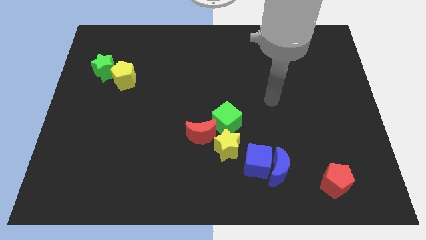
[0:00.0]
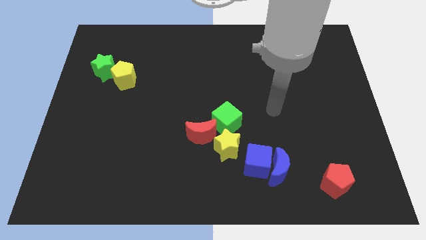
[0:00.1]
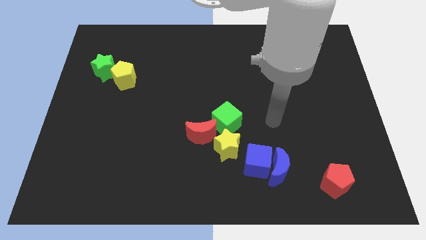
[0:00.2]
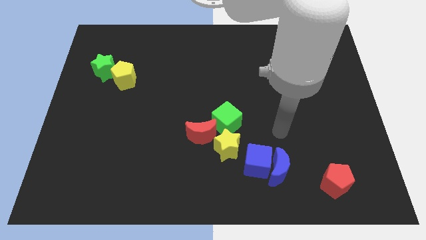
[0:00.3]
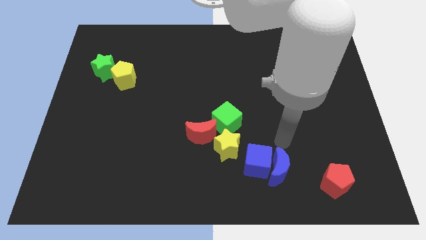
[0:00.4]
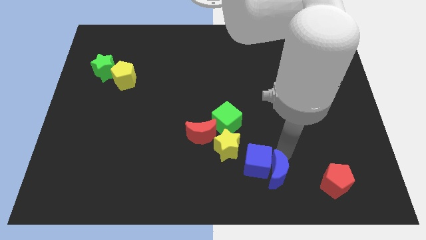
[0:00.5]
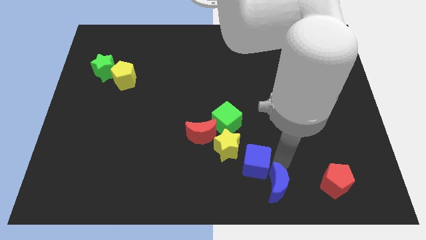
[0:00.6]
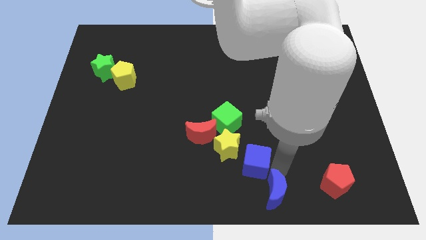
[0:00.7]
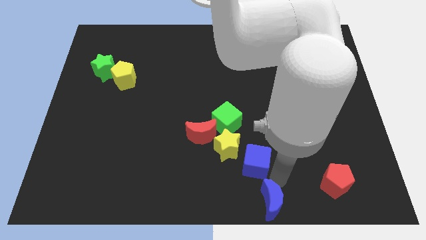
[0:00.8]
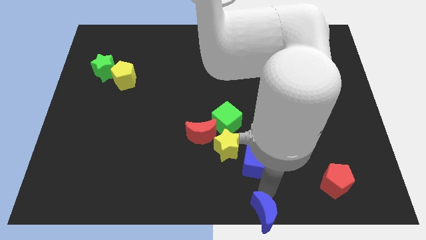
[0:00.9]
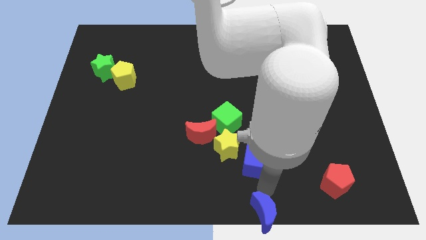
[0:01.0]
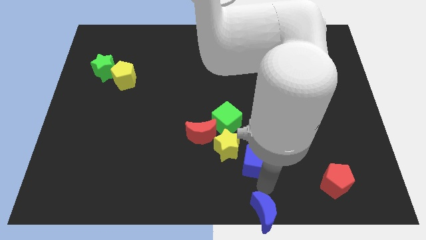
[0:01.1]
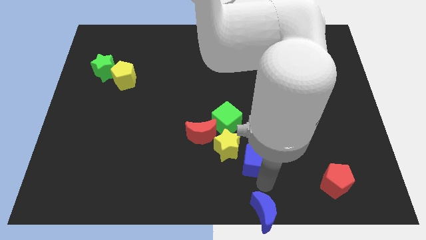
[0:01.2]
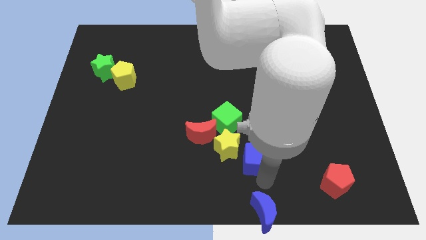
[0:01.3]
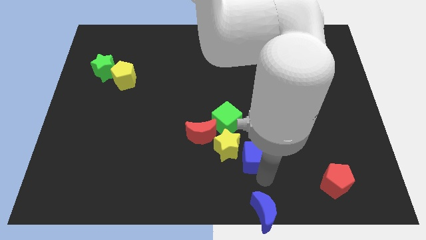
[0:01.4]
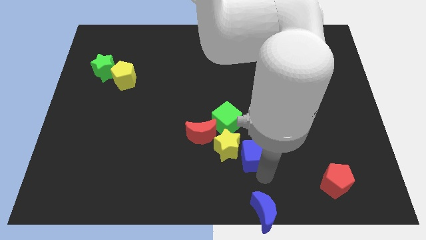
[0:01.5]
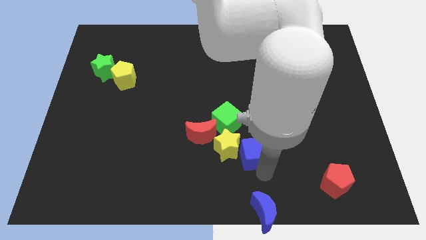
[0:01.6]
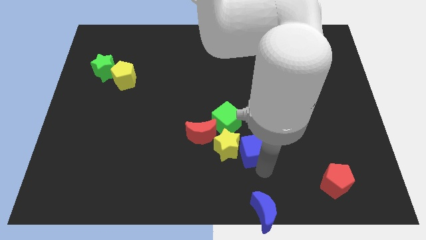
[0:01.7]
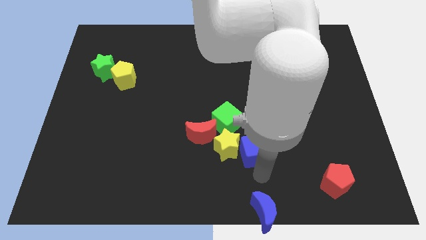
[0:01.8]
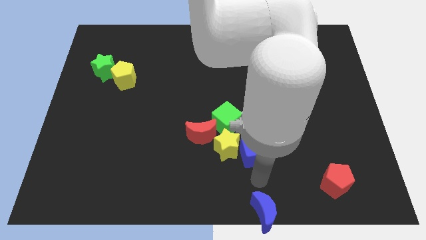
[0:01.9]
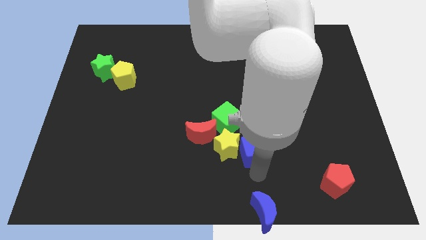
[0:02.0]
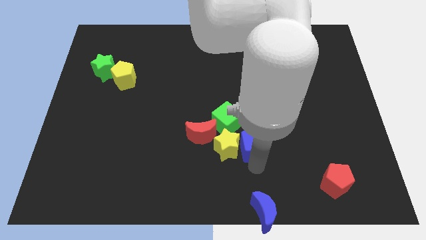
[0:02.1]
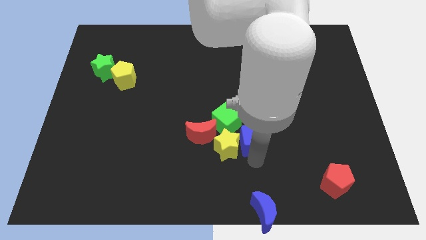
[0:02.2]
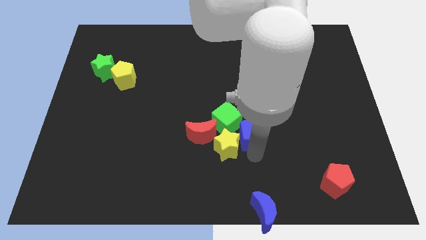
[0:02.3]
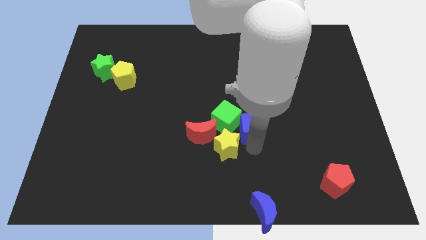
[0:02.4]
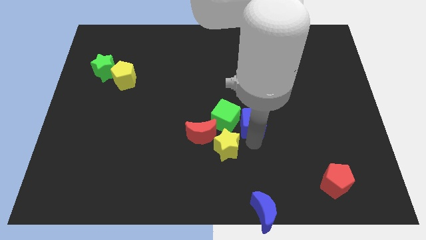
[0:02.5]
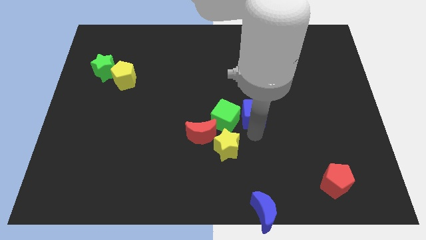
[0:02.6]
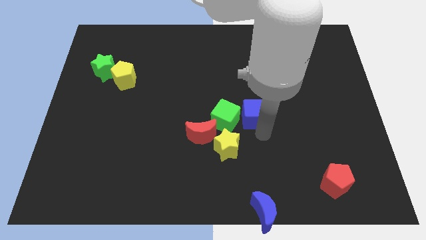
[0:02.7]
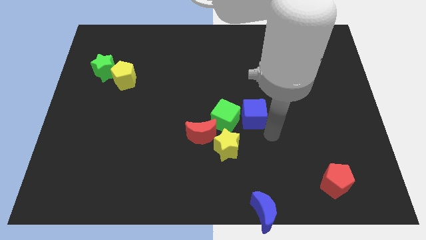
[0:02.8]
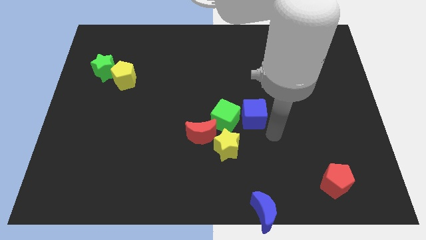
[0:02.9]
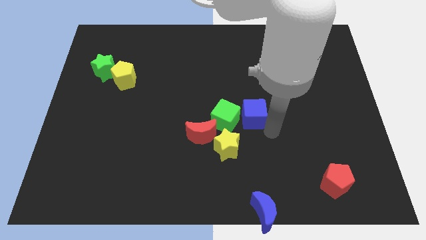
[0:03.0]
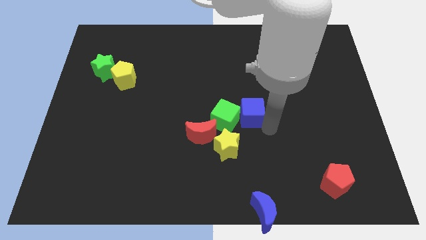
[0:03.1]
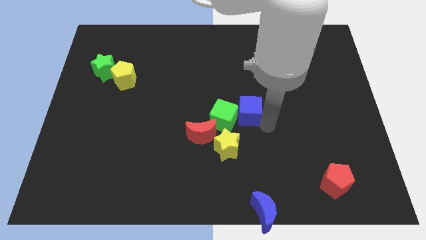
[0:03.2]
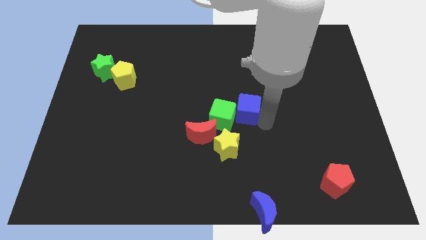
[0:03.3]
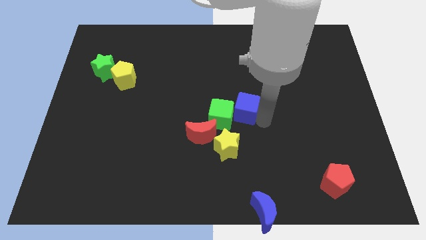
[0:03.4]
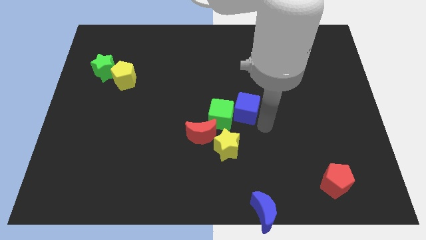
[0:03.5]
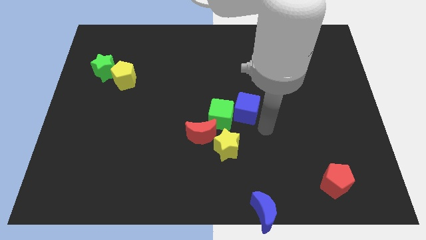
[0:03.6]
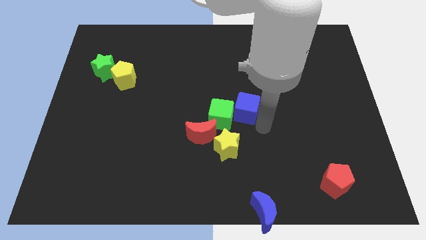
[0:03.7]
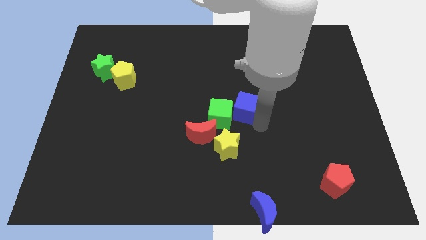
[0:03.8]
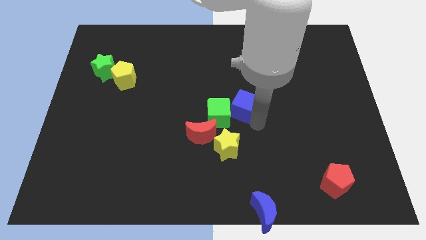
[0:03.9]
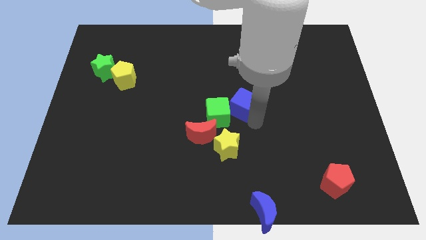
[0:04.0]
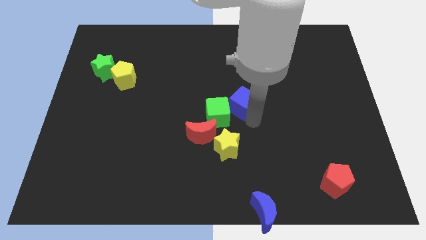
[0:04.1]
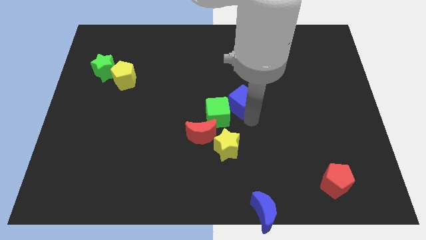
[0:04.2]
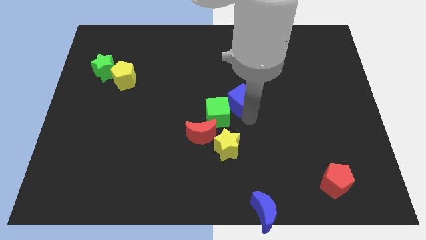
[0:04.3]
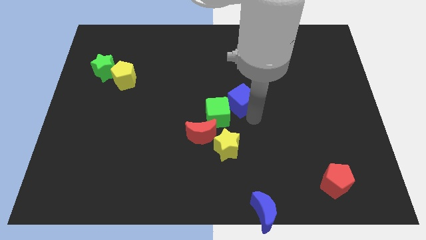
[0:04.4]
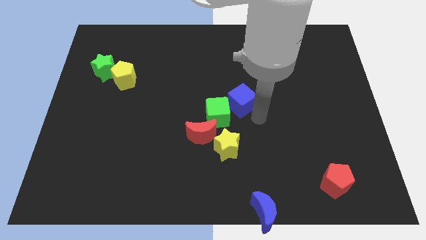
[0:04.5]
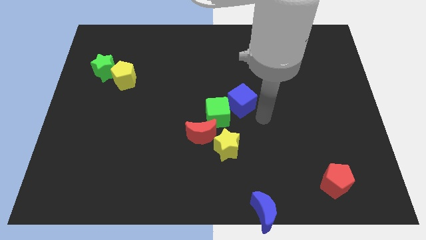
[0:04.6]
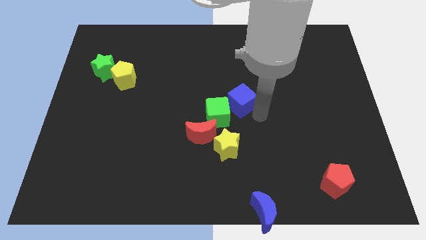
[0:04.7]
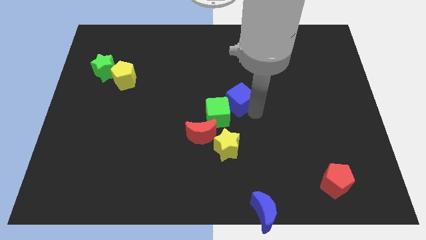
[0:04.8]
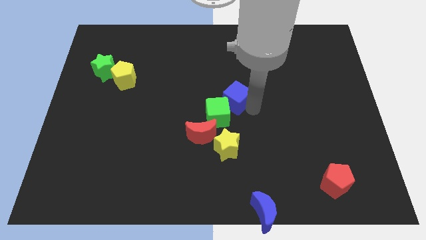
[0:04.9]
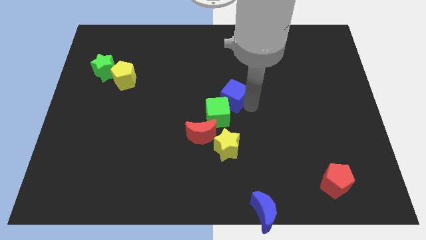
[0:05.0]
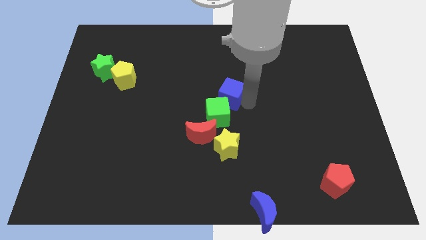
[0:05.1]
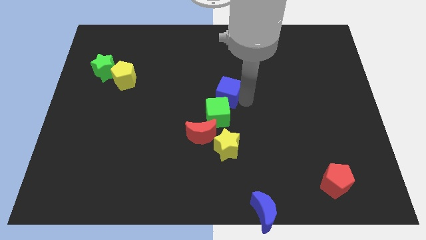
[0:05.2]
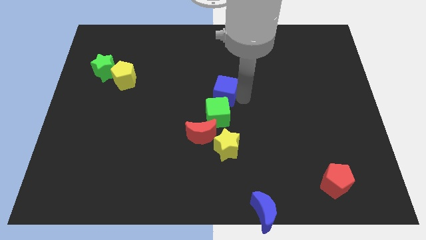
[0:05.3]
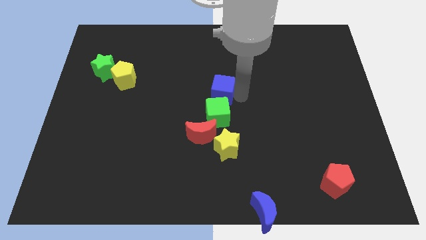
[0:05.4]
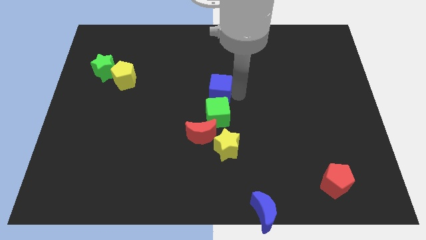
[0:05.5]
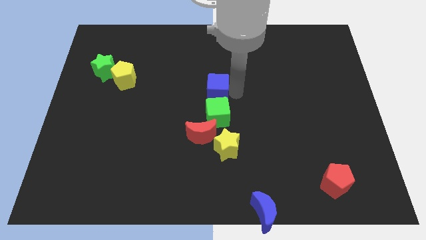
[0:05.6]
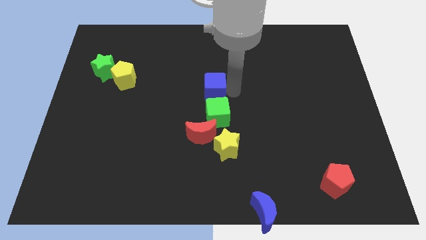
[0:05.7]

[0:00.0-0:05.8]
push the blue cube to the top left of the green cube
